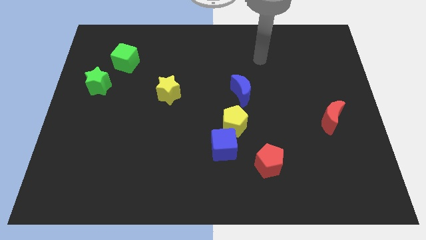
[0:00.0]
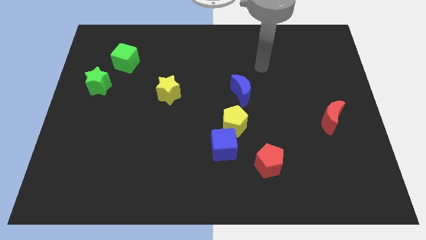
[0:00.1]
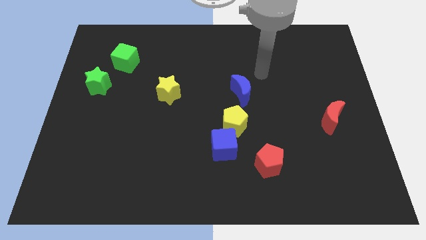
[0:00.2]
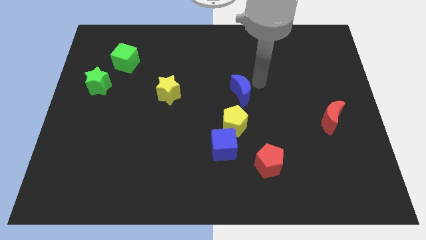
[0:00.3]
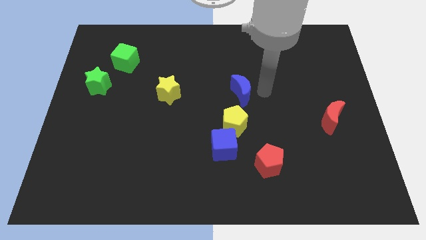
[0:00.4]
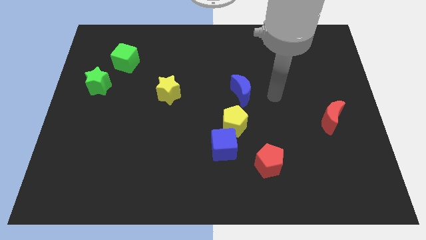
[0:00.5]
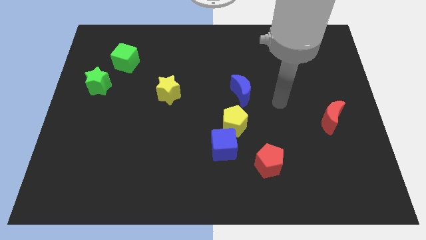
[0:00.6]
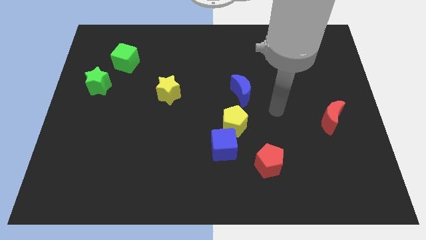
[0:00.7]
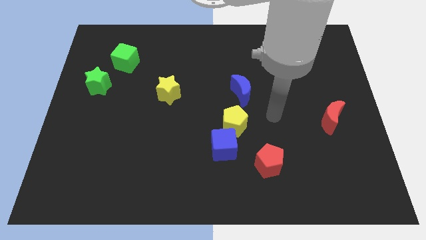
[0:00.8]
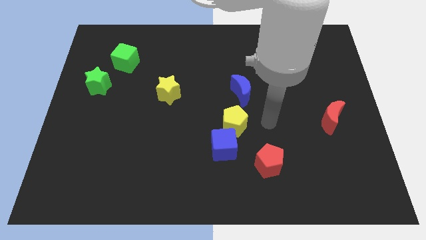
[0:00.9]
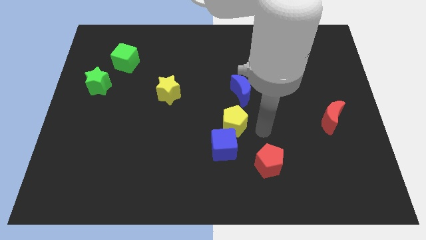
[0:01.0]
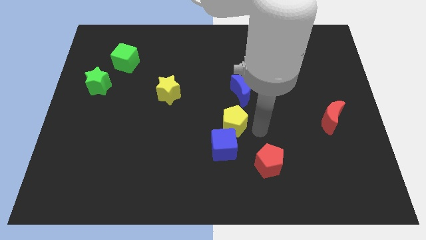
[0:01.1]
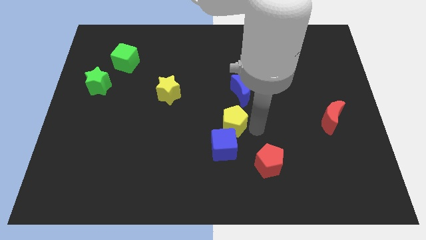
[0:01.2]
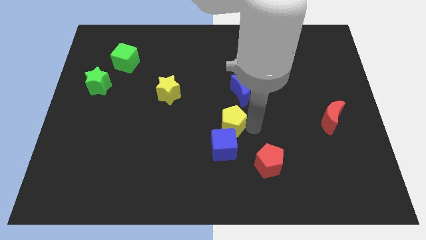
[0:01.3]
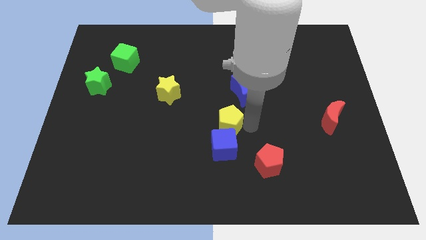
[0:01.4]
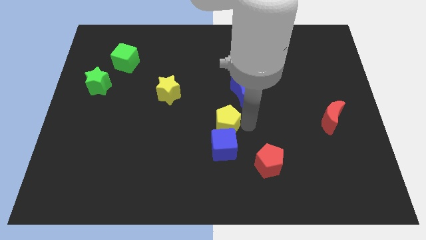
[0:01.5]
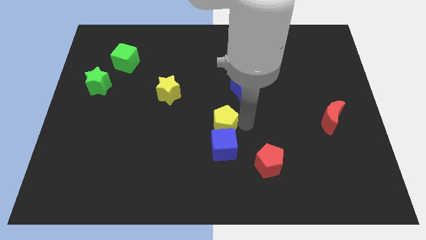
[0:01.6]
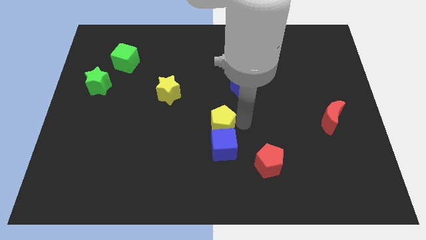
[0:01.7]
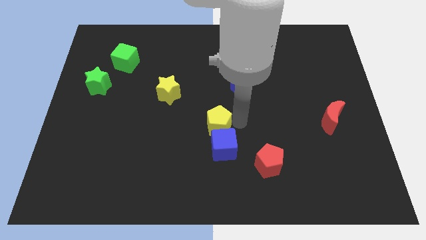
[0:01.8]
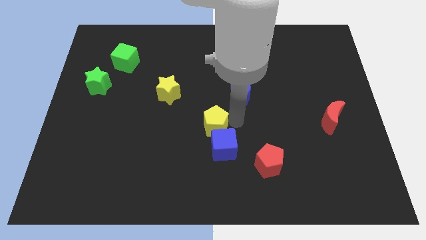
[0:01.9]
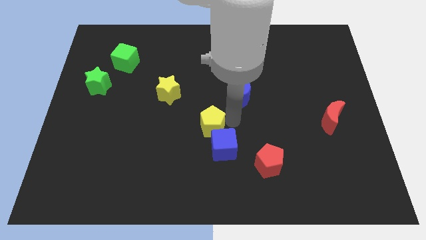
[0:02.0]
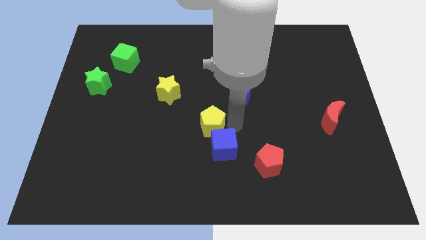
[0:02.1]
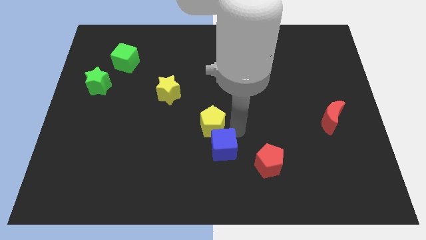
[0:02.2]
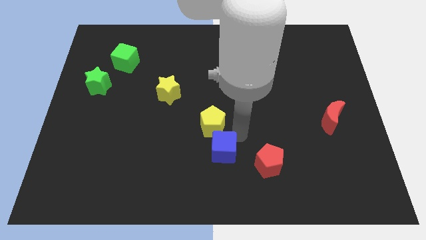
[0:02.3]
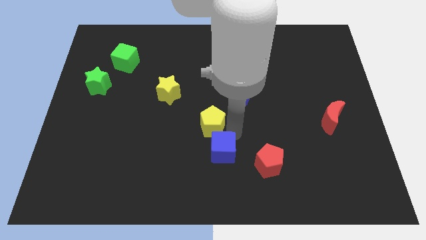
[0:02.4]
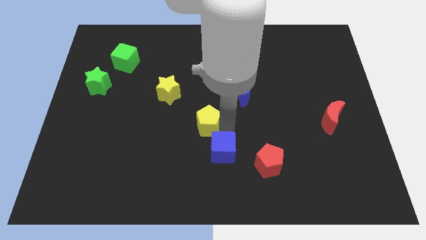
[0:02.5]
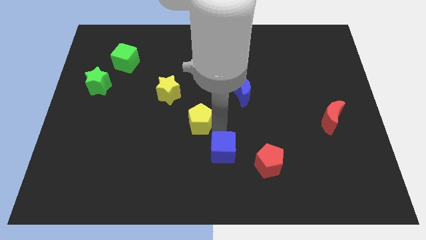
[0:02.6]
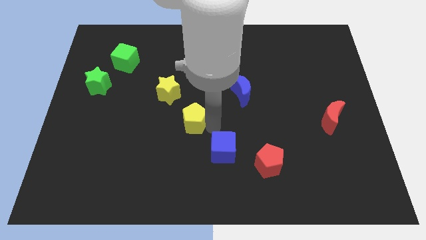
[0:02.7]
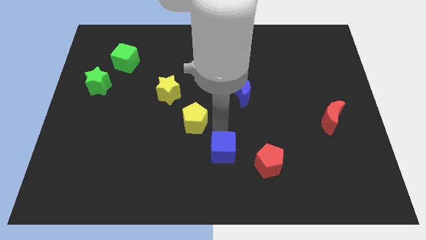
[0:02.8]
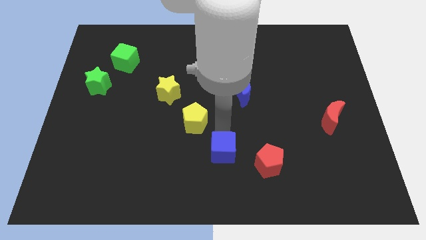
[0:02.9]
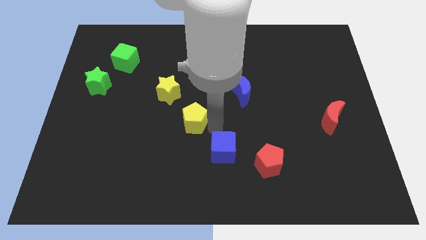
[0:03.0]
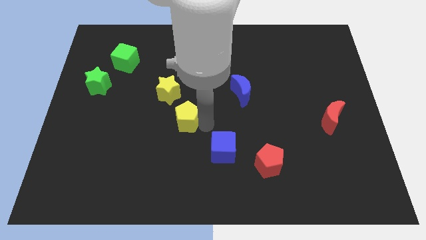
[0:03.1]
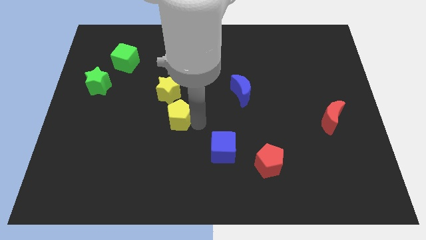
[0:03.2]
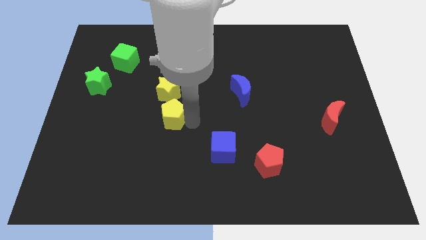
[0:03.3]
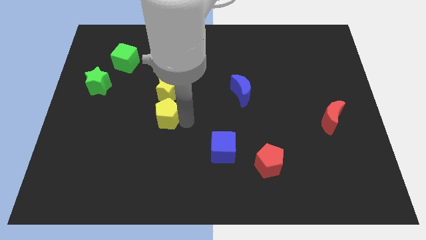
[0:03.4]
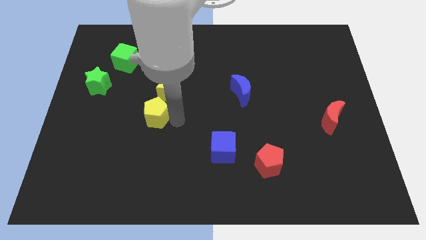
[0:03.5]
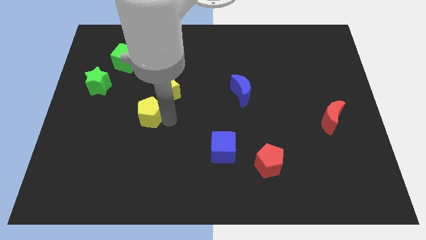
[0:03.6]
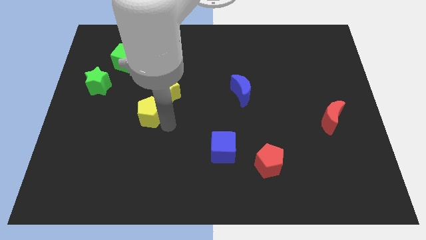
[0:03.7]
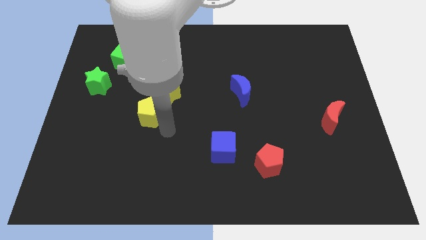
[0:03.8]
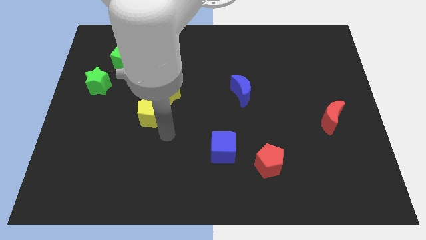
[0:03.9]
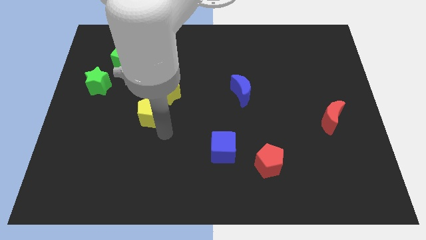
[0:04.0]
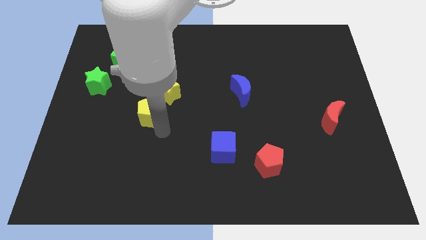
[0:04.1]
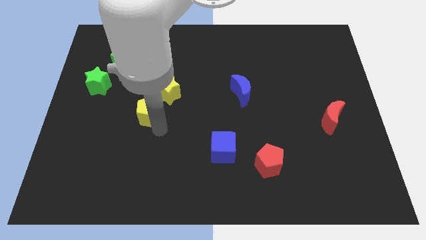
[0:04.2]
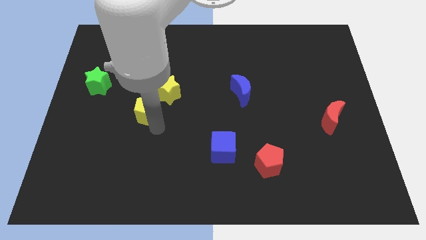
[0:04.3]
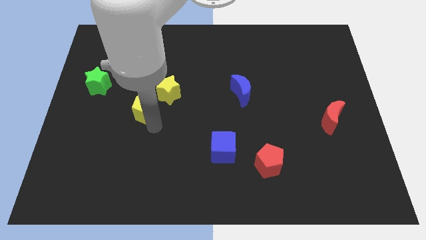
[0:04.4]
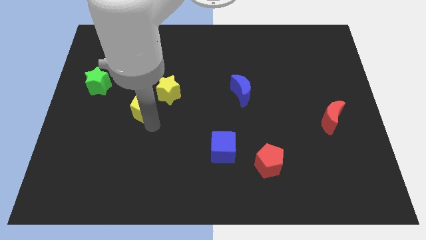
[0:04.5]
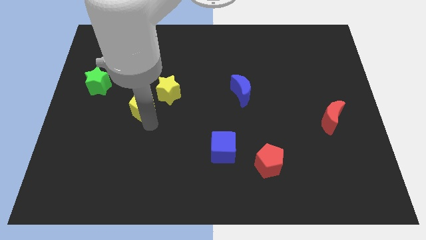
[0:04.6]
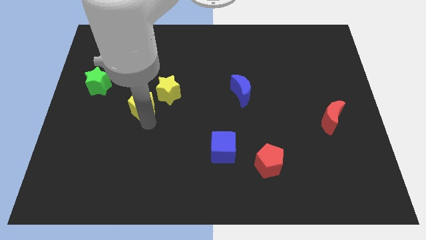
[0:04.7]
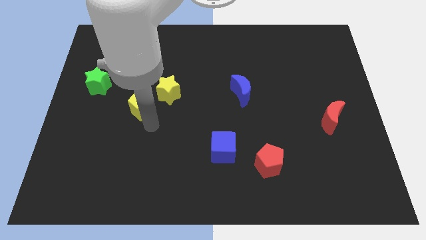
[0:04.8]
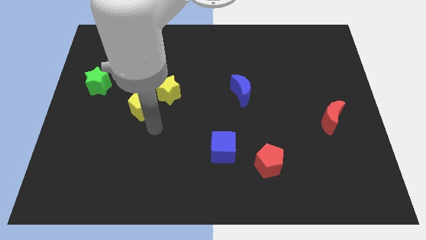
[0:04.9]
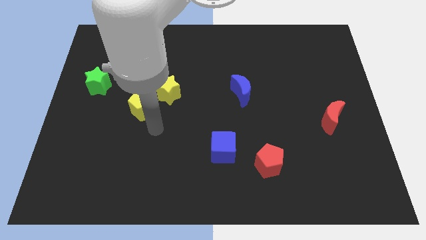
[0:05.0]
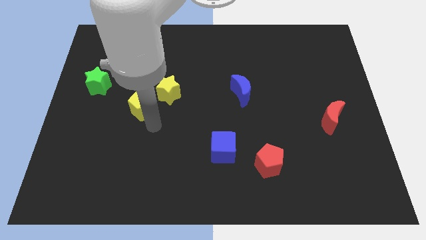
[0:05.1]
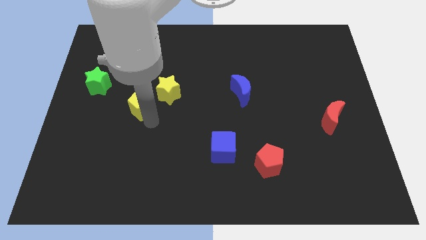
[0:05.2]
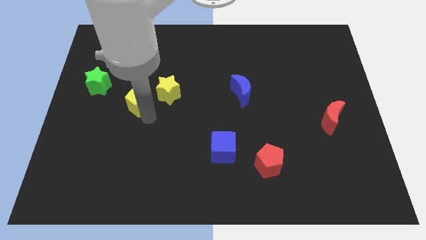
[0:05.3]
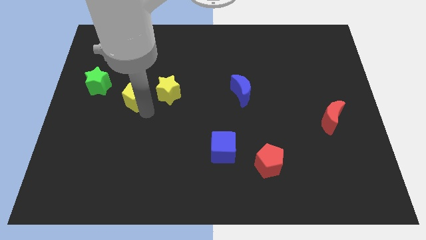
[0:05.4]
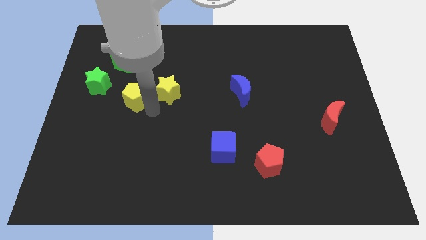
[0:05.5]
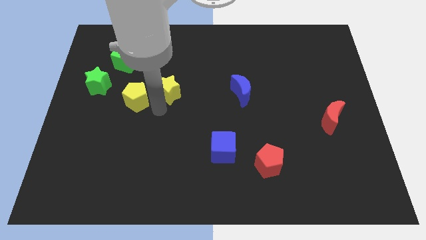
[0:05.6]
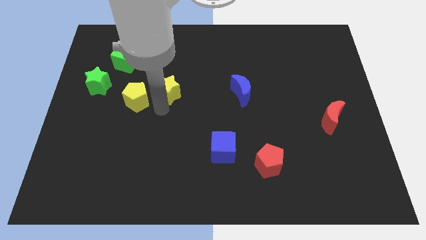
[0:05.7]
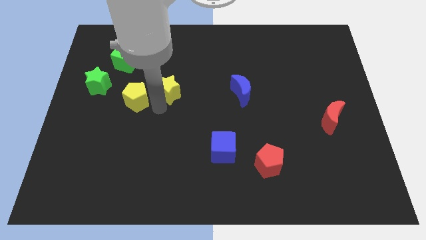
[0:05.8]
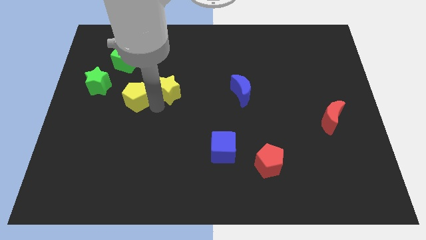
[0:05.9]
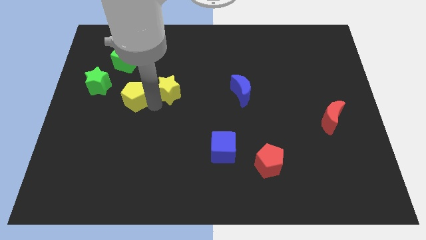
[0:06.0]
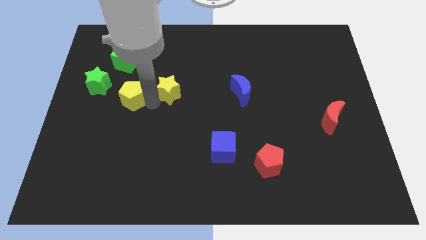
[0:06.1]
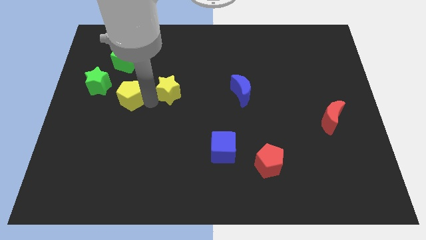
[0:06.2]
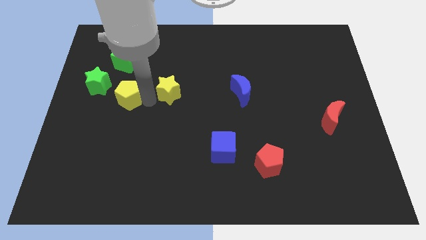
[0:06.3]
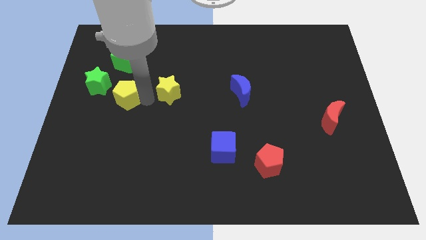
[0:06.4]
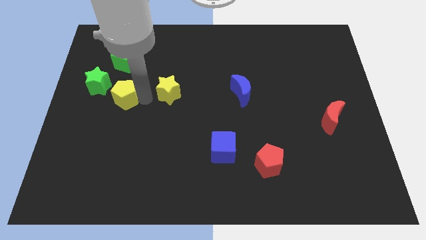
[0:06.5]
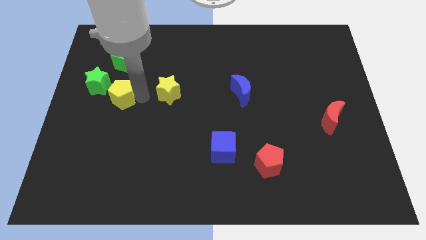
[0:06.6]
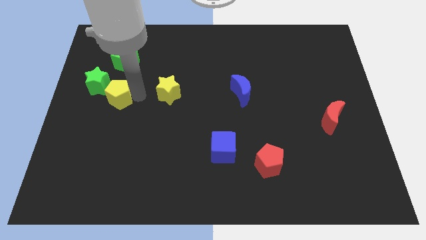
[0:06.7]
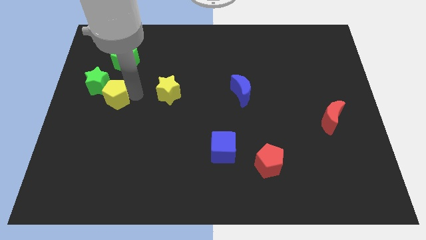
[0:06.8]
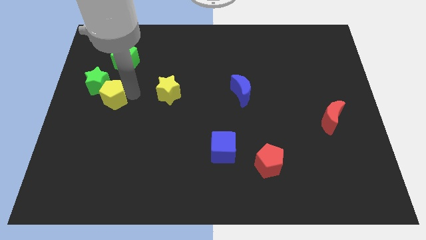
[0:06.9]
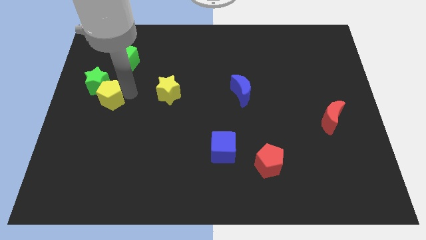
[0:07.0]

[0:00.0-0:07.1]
slide the yellow pentagon to the green star

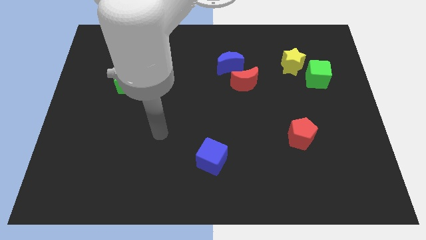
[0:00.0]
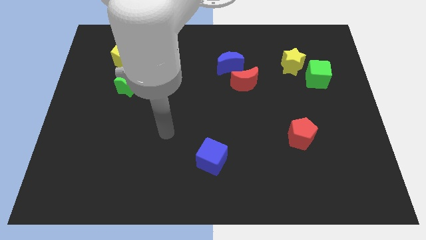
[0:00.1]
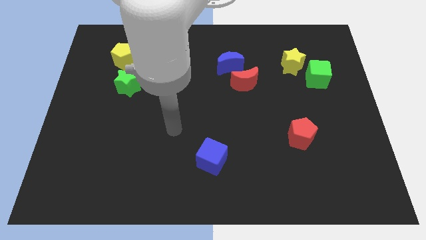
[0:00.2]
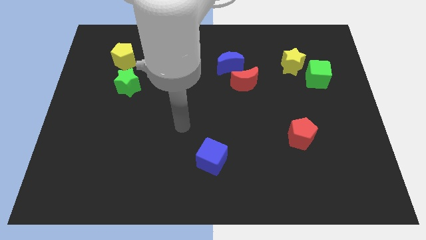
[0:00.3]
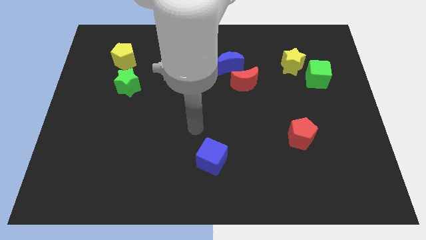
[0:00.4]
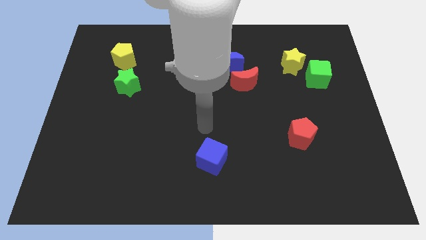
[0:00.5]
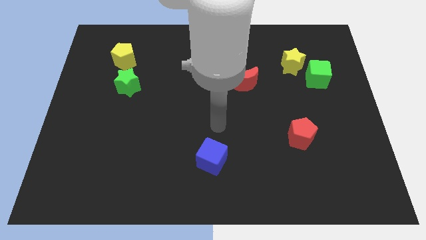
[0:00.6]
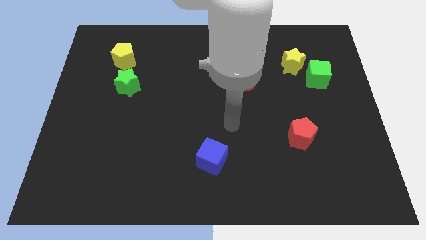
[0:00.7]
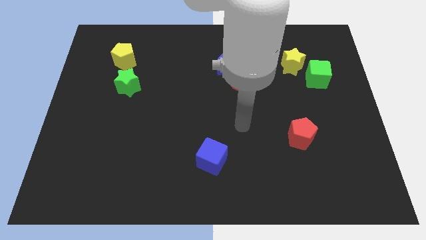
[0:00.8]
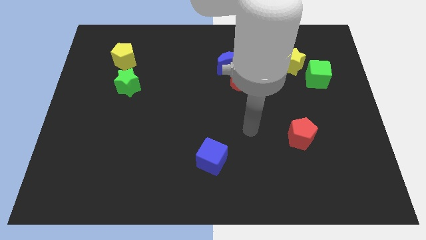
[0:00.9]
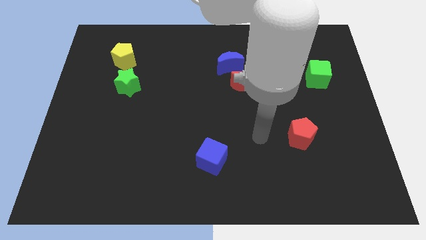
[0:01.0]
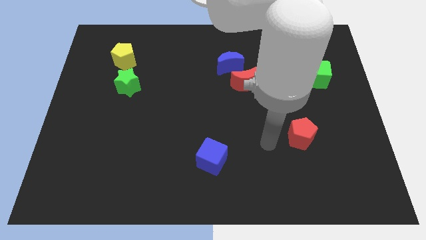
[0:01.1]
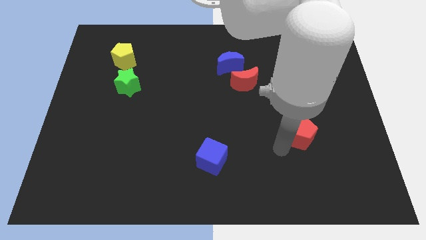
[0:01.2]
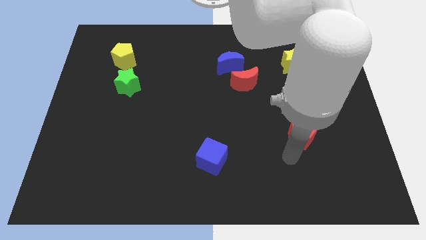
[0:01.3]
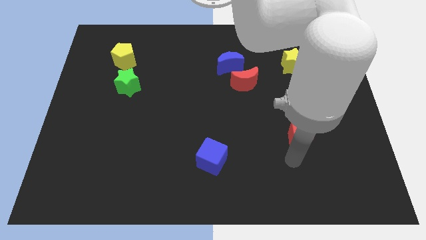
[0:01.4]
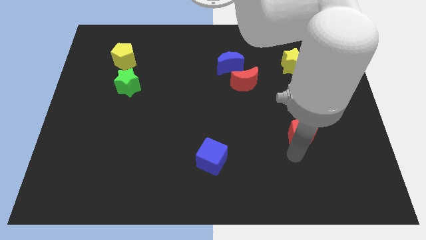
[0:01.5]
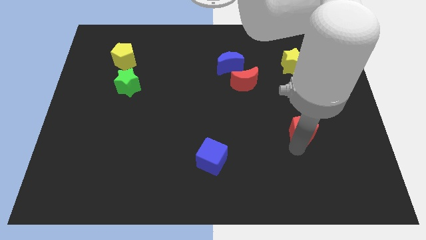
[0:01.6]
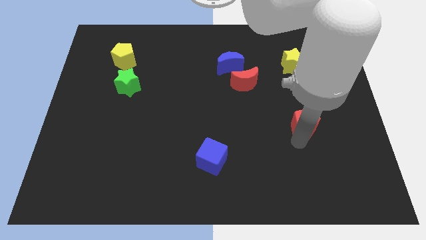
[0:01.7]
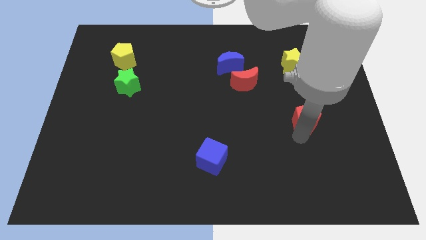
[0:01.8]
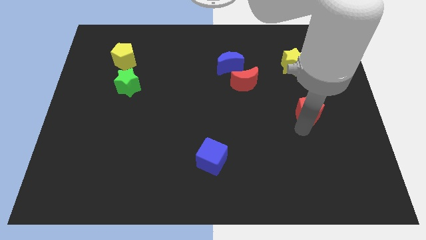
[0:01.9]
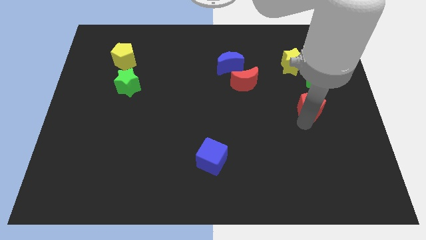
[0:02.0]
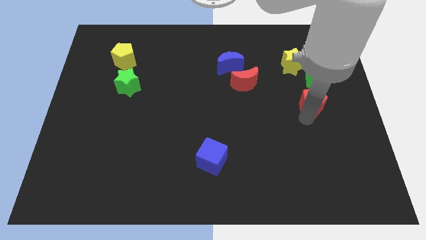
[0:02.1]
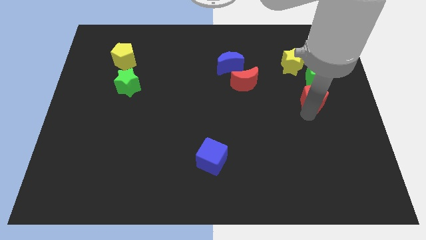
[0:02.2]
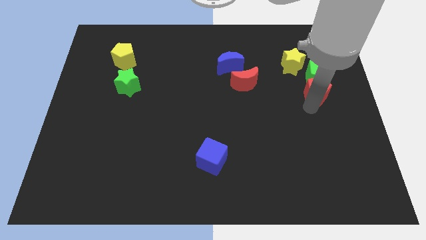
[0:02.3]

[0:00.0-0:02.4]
slide the red pentagon close to the green cube
